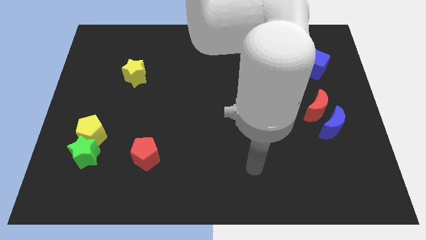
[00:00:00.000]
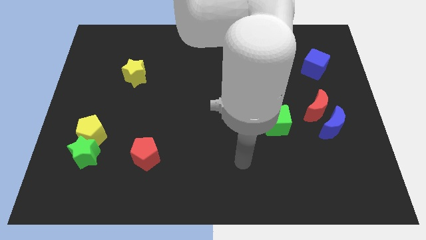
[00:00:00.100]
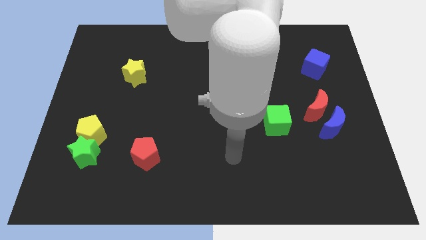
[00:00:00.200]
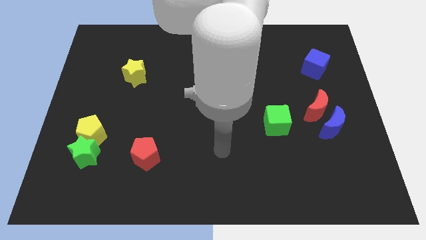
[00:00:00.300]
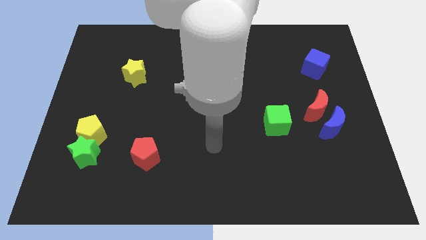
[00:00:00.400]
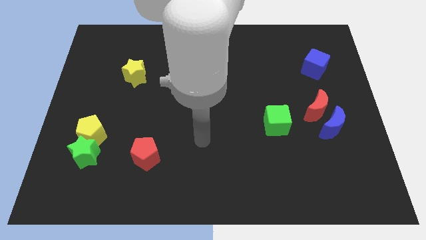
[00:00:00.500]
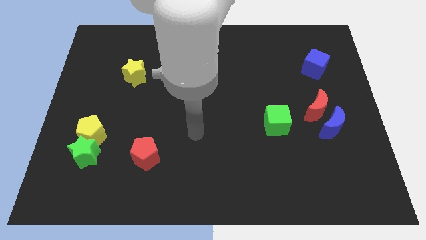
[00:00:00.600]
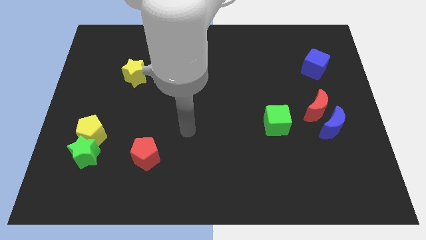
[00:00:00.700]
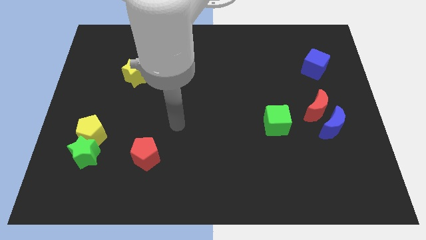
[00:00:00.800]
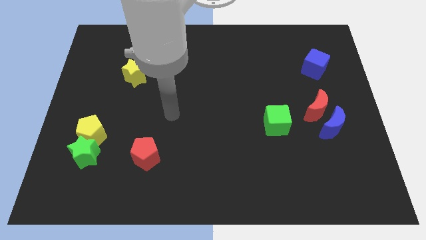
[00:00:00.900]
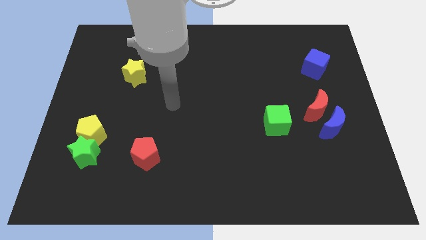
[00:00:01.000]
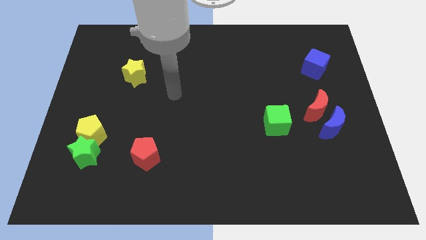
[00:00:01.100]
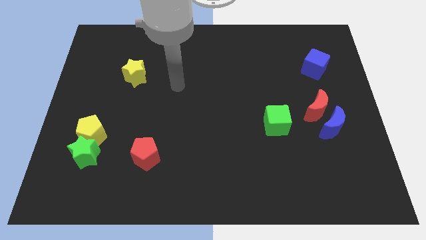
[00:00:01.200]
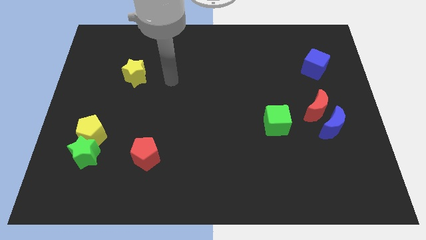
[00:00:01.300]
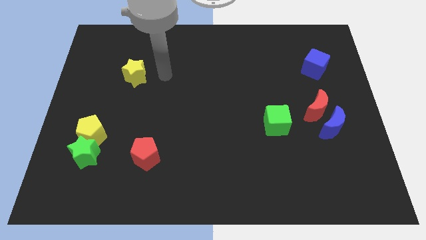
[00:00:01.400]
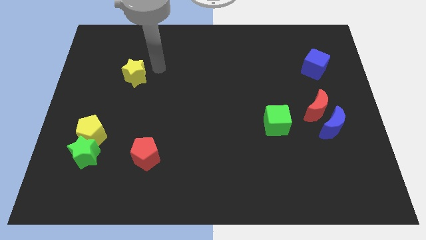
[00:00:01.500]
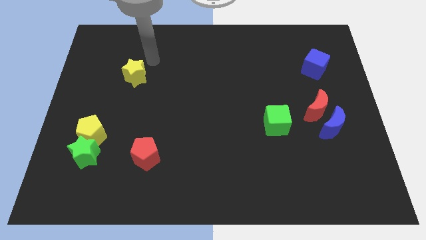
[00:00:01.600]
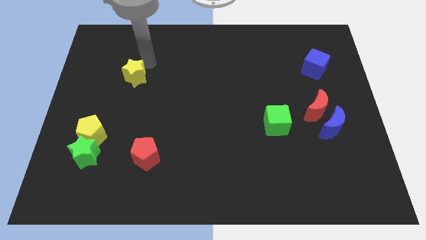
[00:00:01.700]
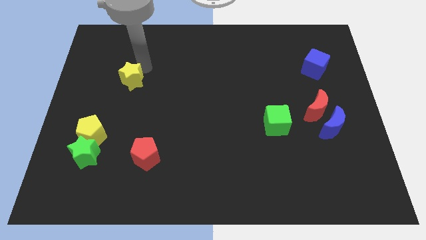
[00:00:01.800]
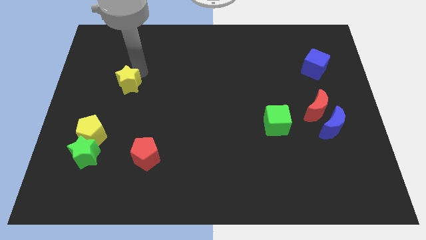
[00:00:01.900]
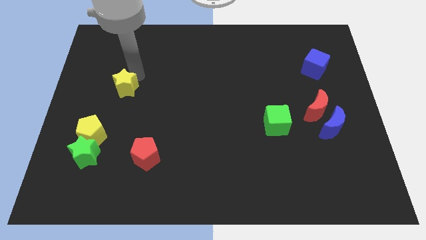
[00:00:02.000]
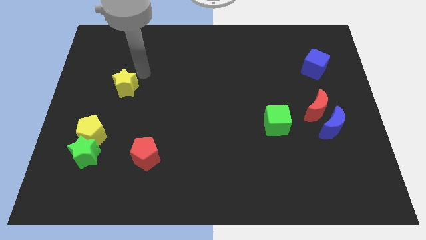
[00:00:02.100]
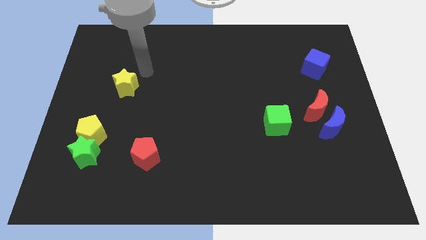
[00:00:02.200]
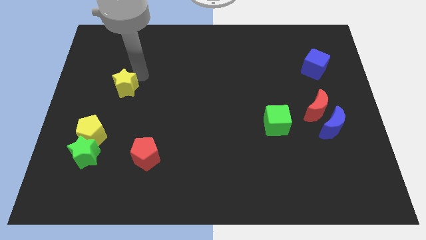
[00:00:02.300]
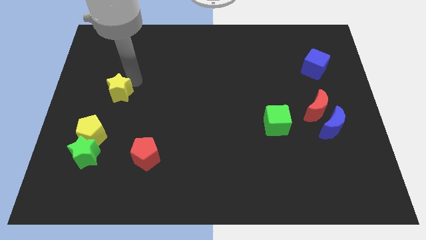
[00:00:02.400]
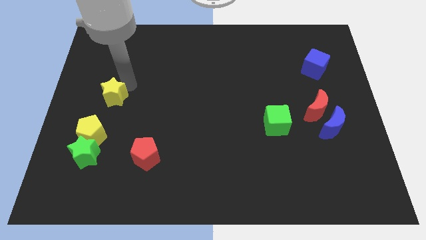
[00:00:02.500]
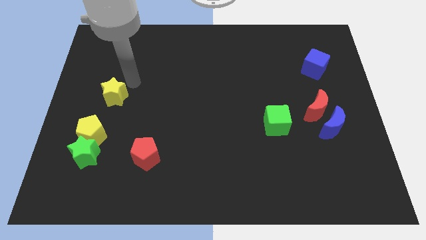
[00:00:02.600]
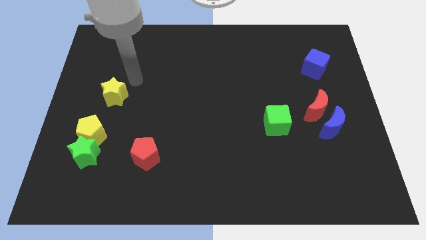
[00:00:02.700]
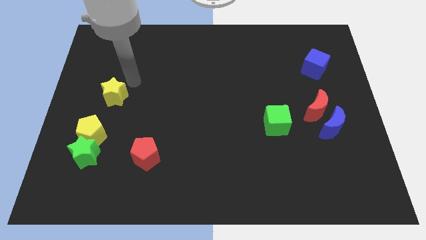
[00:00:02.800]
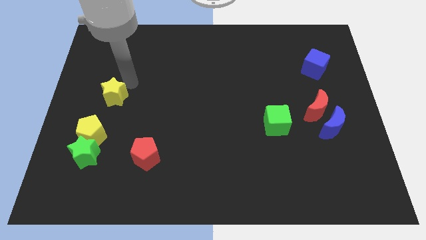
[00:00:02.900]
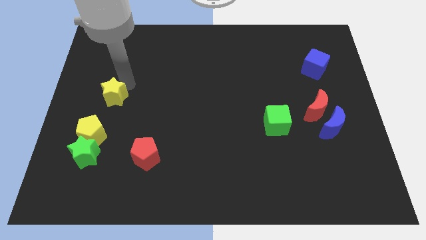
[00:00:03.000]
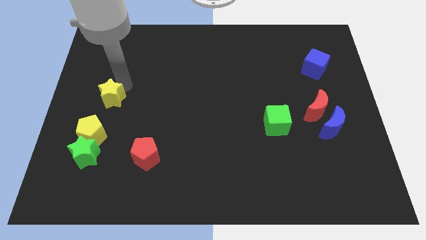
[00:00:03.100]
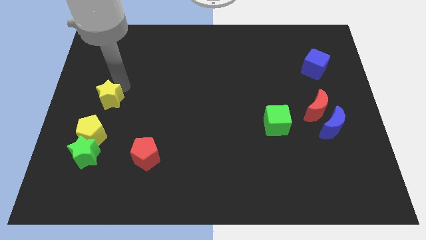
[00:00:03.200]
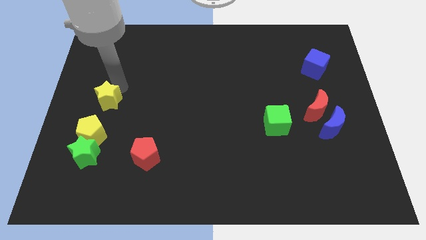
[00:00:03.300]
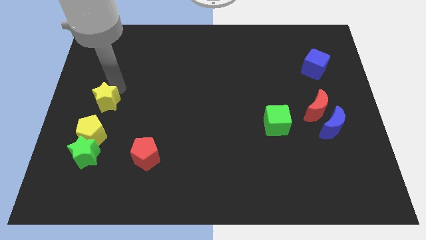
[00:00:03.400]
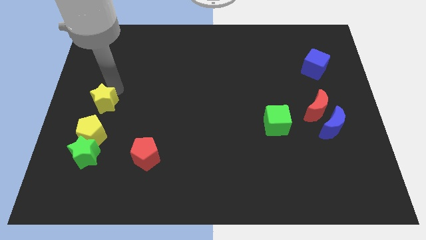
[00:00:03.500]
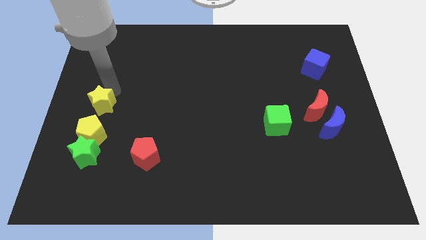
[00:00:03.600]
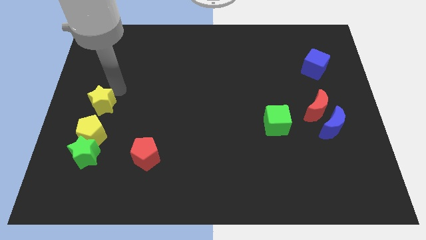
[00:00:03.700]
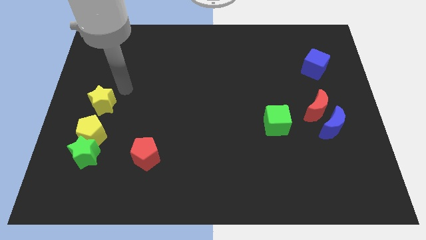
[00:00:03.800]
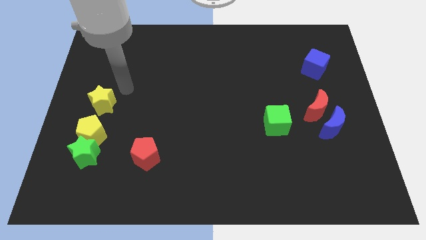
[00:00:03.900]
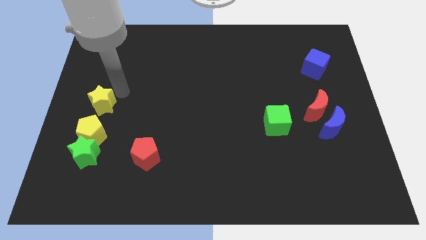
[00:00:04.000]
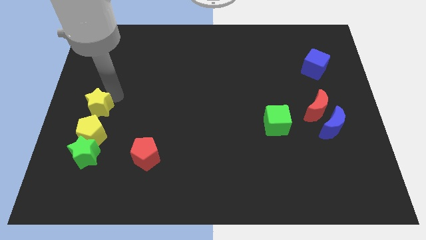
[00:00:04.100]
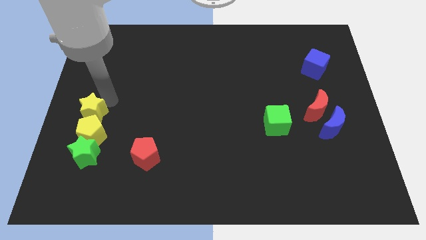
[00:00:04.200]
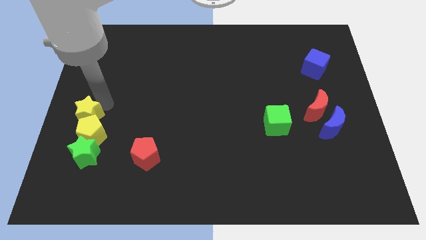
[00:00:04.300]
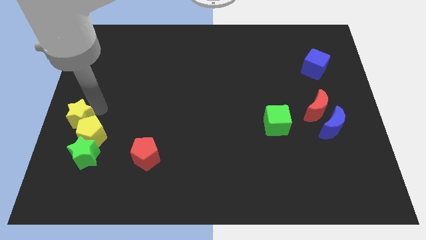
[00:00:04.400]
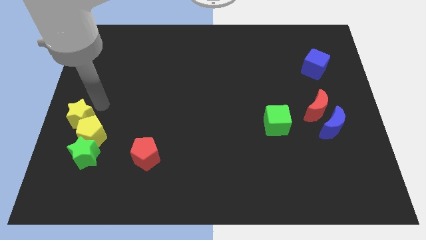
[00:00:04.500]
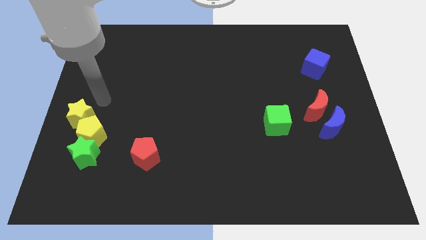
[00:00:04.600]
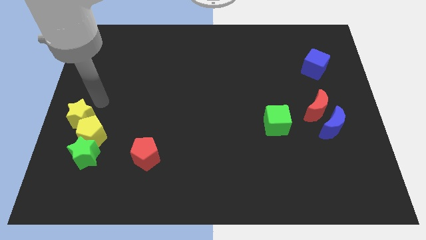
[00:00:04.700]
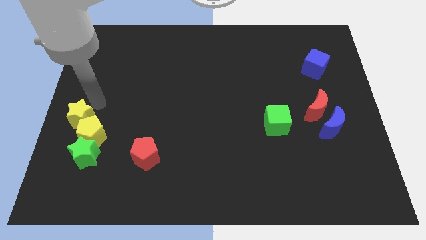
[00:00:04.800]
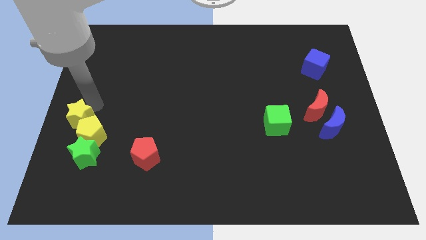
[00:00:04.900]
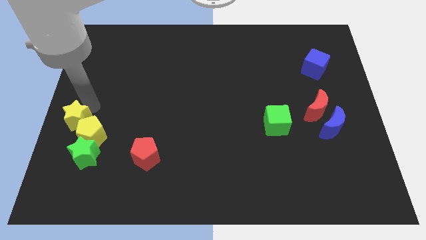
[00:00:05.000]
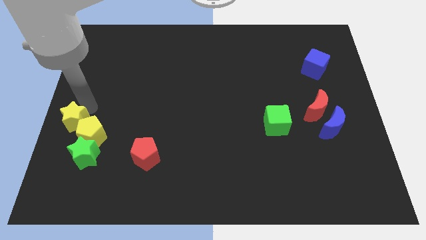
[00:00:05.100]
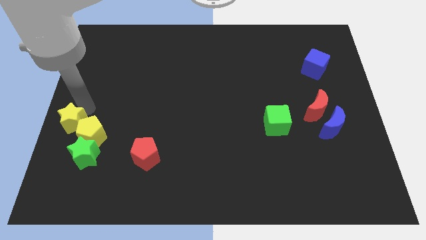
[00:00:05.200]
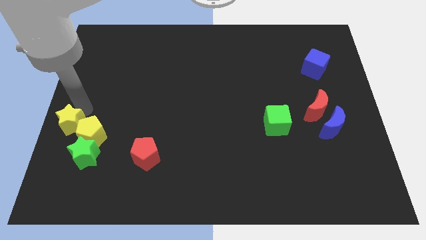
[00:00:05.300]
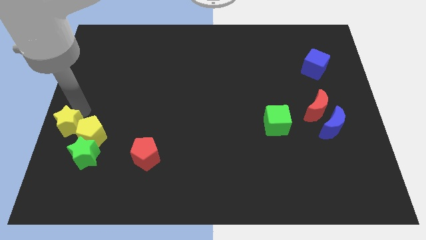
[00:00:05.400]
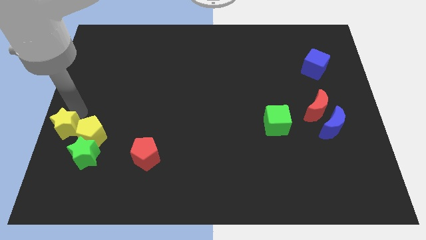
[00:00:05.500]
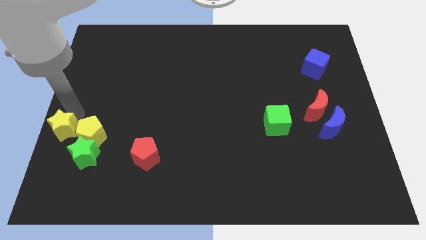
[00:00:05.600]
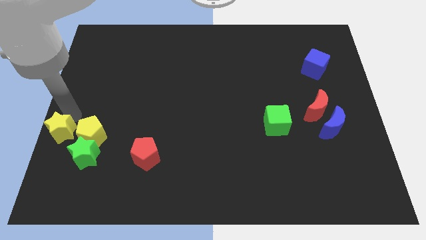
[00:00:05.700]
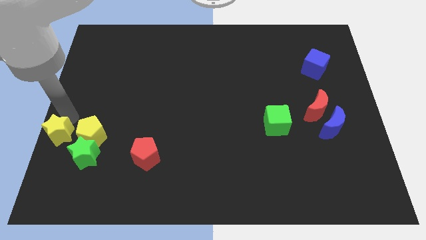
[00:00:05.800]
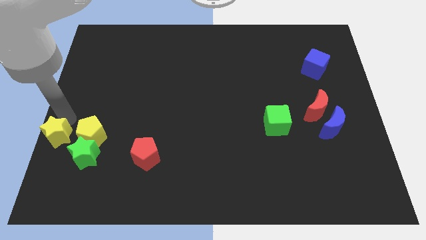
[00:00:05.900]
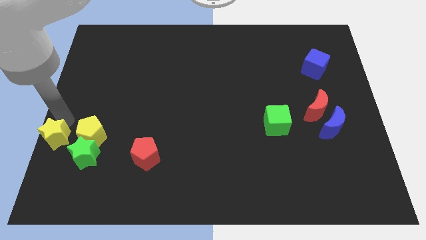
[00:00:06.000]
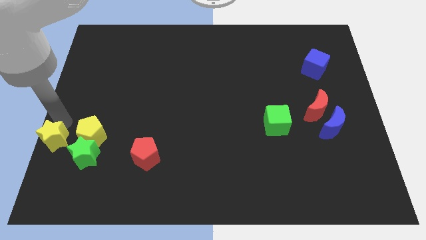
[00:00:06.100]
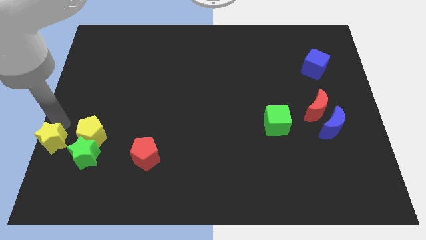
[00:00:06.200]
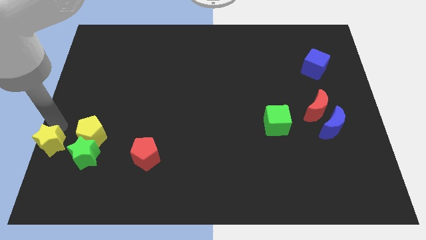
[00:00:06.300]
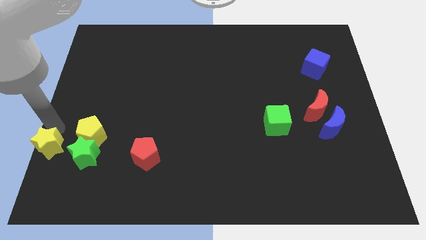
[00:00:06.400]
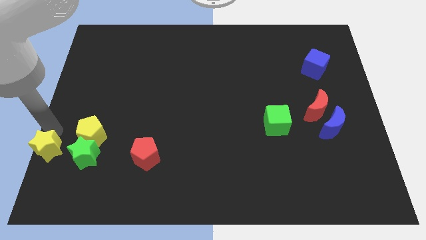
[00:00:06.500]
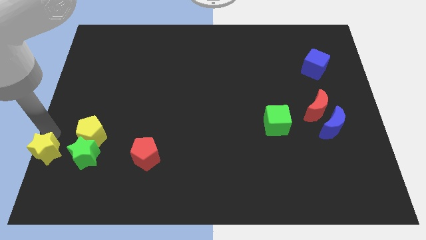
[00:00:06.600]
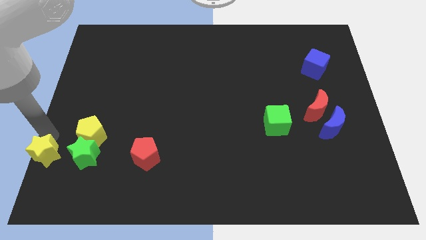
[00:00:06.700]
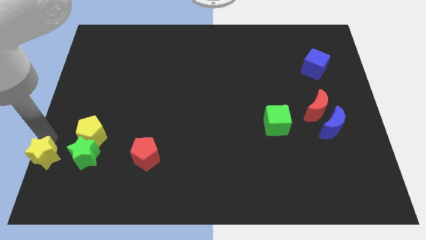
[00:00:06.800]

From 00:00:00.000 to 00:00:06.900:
push the yellow star to the bottom left of the board
